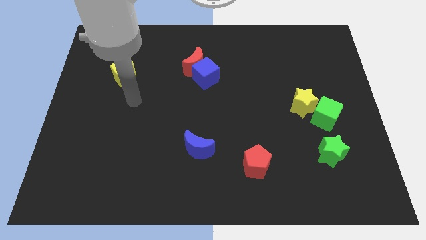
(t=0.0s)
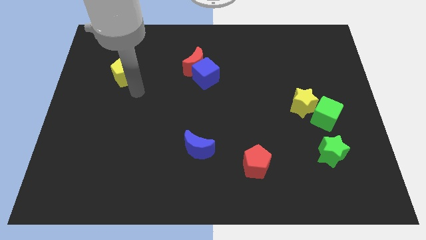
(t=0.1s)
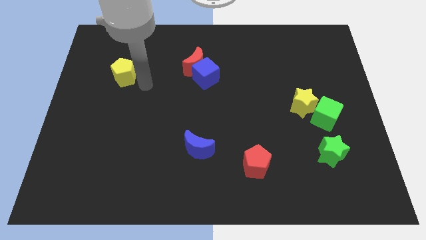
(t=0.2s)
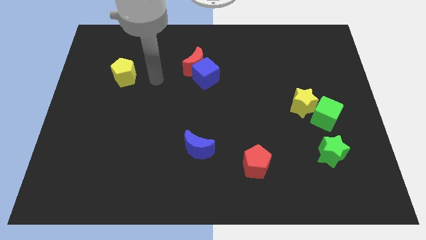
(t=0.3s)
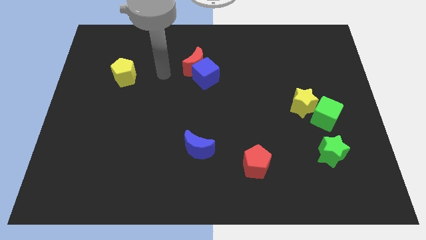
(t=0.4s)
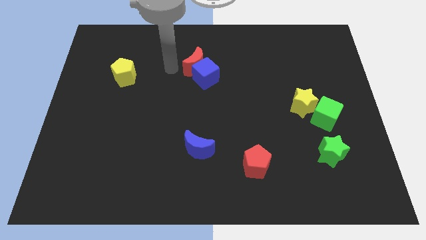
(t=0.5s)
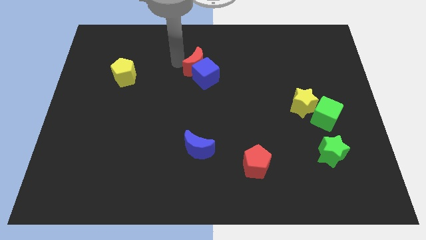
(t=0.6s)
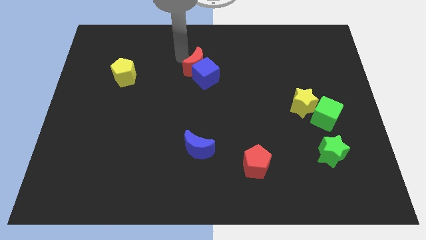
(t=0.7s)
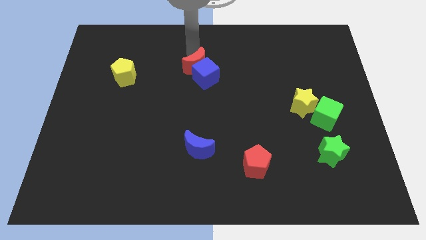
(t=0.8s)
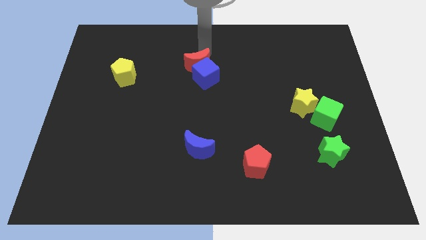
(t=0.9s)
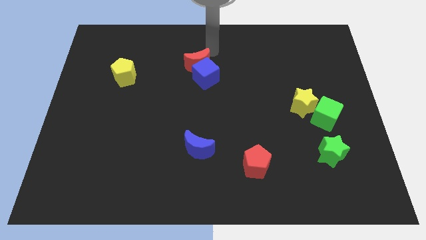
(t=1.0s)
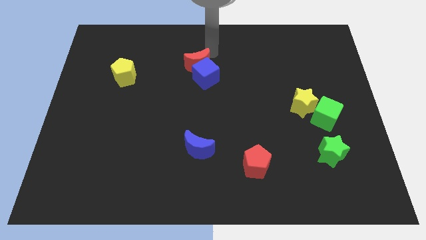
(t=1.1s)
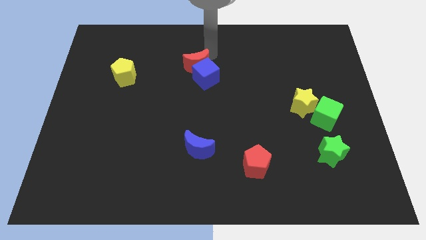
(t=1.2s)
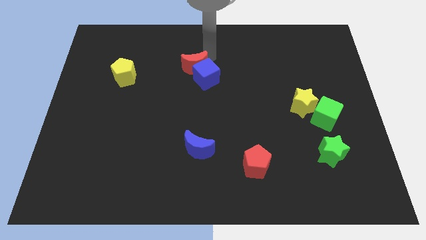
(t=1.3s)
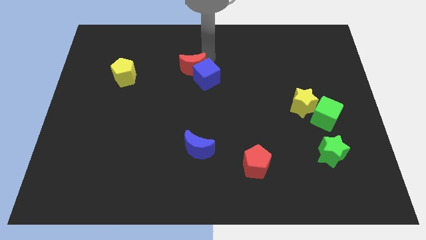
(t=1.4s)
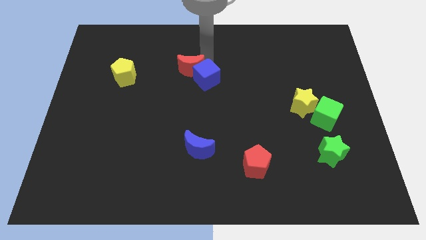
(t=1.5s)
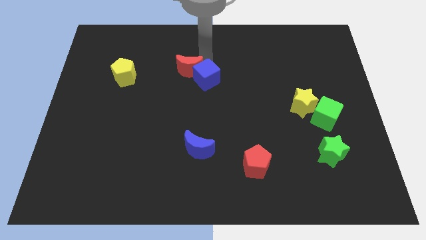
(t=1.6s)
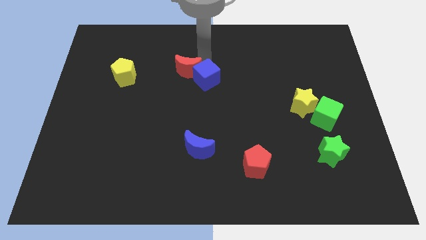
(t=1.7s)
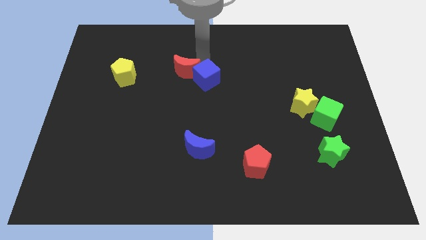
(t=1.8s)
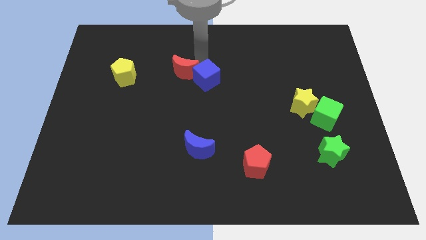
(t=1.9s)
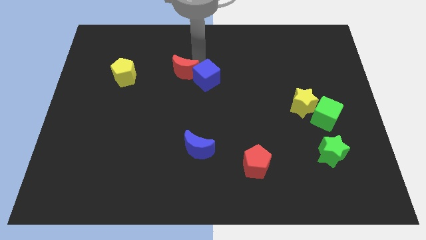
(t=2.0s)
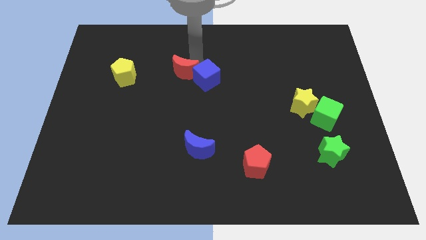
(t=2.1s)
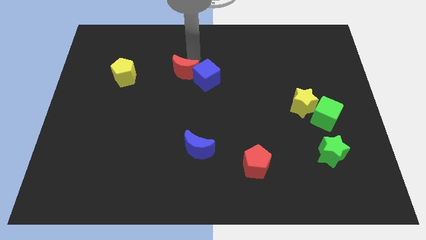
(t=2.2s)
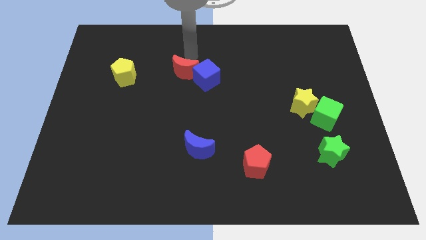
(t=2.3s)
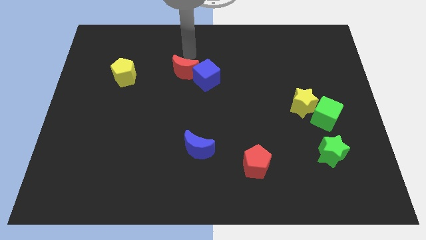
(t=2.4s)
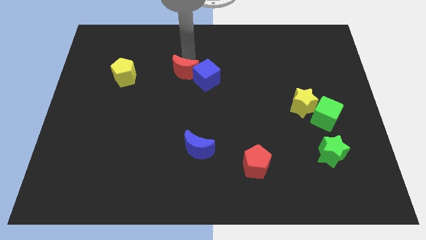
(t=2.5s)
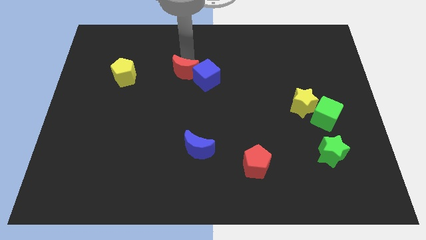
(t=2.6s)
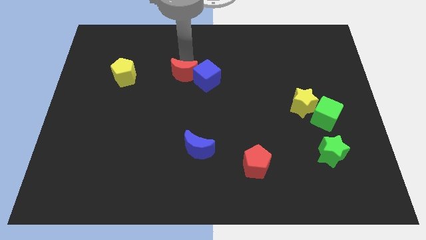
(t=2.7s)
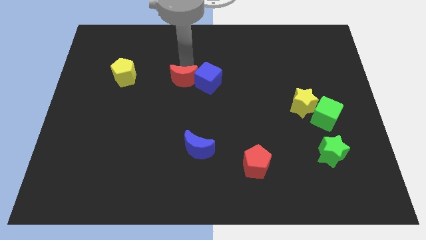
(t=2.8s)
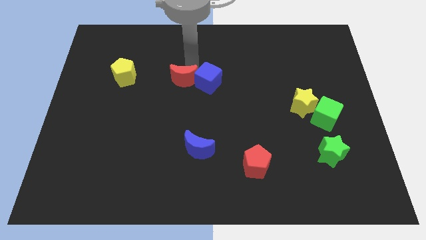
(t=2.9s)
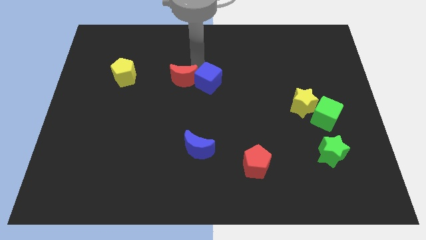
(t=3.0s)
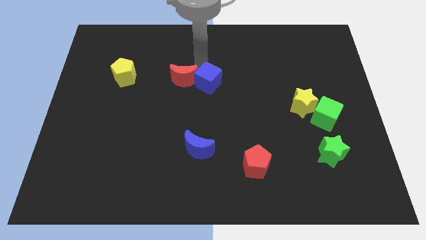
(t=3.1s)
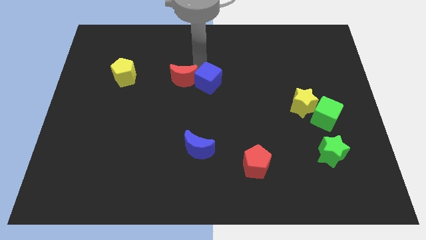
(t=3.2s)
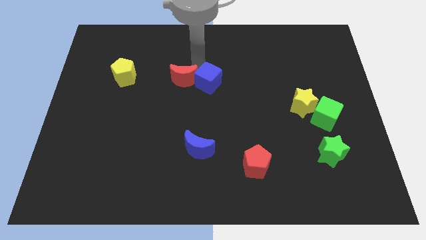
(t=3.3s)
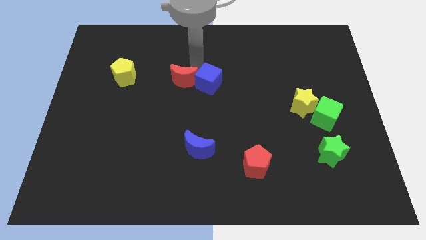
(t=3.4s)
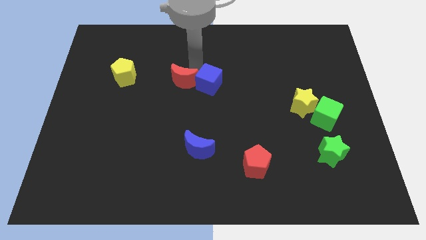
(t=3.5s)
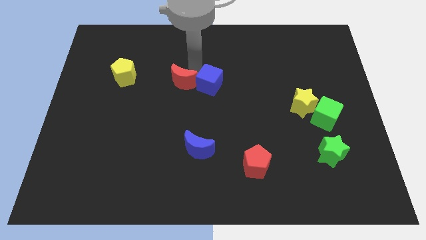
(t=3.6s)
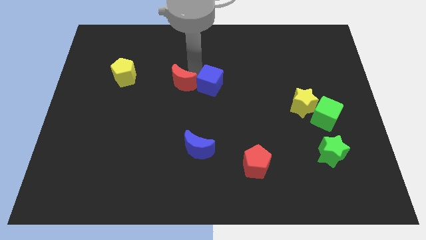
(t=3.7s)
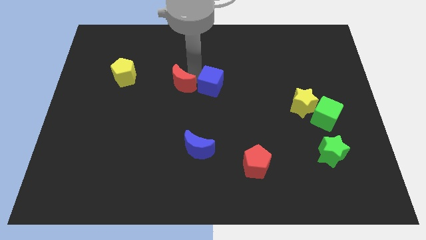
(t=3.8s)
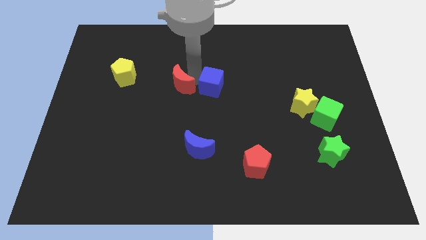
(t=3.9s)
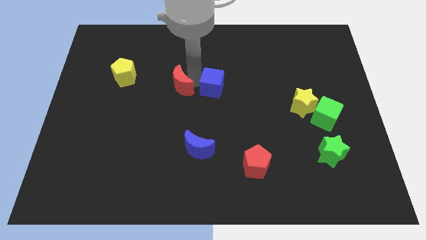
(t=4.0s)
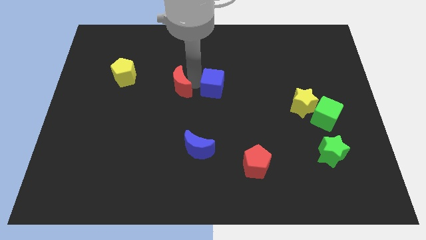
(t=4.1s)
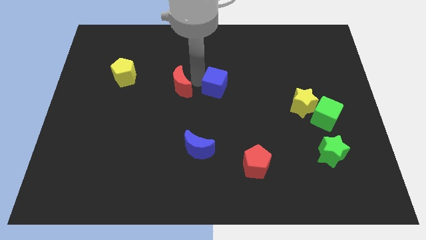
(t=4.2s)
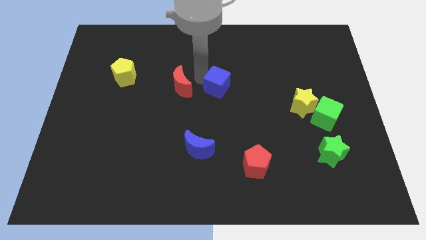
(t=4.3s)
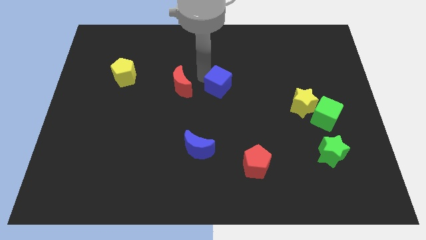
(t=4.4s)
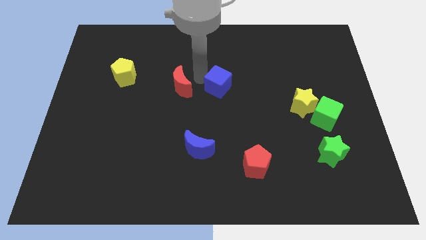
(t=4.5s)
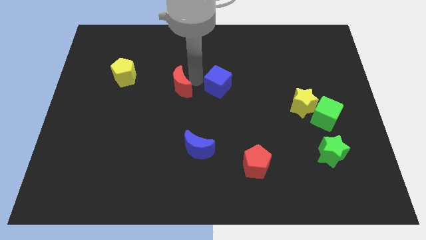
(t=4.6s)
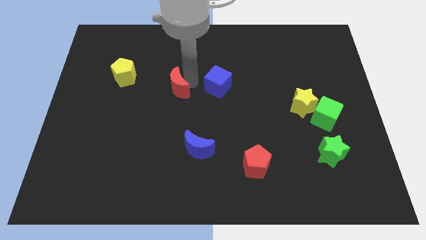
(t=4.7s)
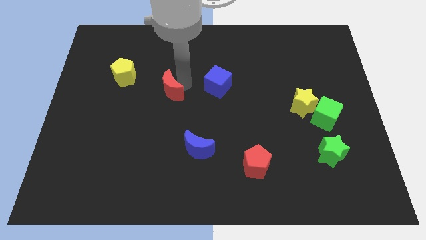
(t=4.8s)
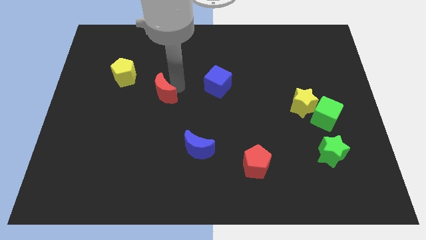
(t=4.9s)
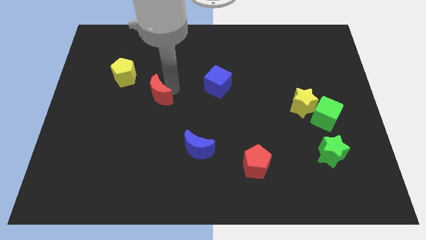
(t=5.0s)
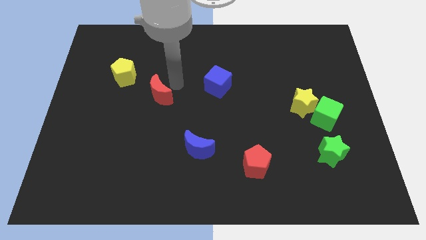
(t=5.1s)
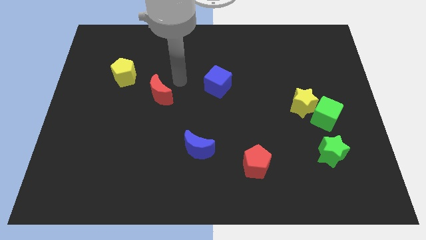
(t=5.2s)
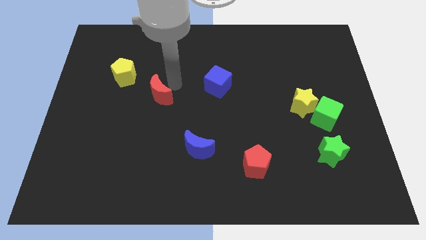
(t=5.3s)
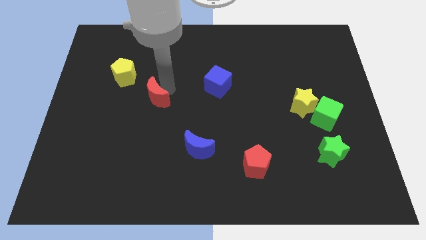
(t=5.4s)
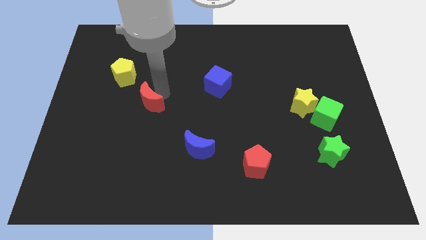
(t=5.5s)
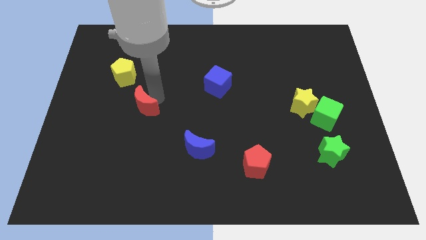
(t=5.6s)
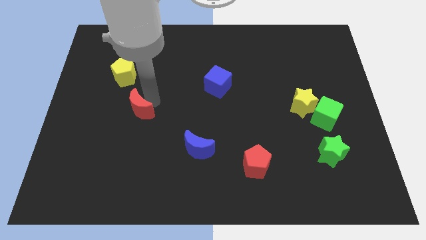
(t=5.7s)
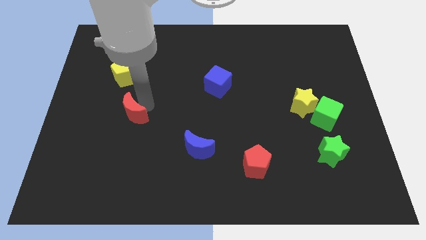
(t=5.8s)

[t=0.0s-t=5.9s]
push the red moon downwards and left diagonally

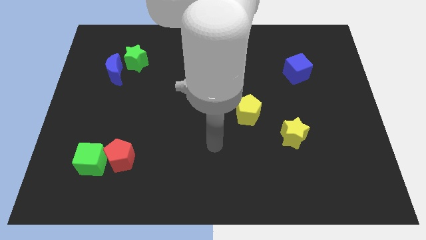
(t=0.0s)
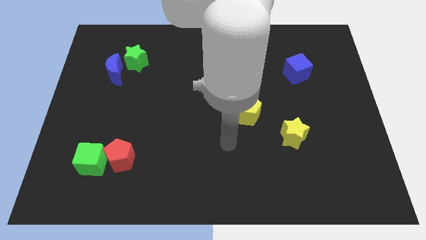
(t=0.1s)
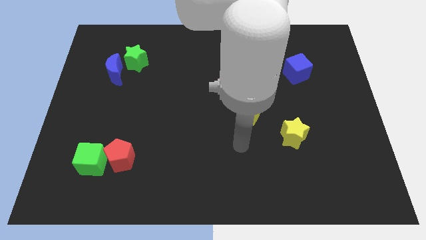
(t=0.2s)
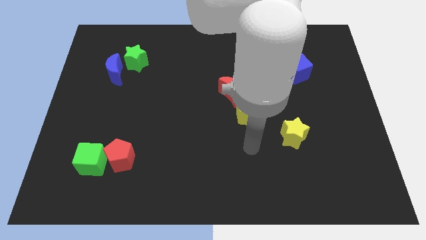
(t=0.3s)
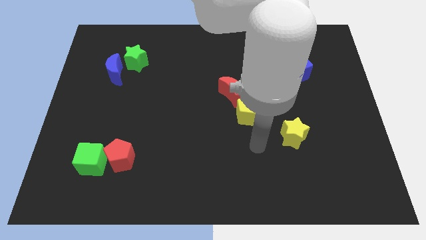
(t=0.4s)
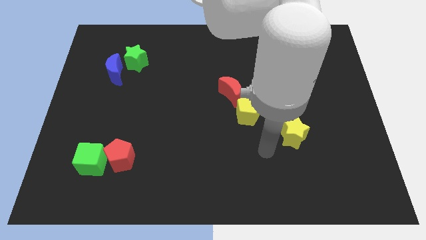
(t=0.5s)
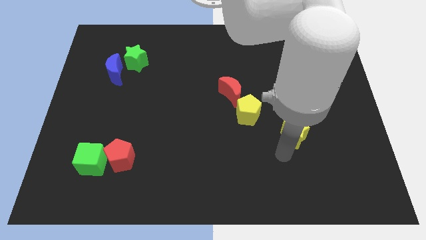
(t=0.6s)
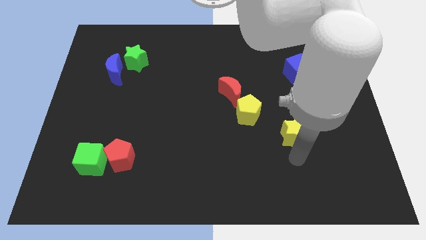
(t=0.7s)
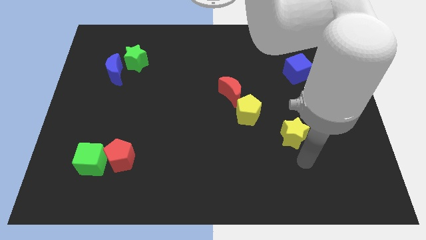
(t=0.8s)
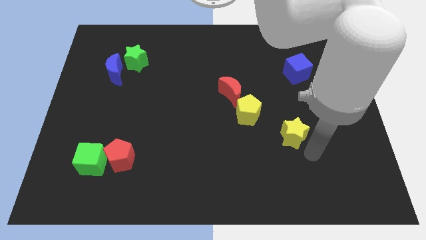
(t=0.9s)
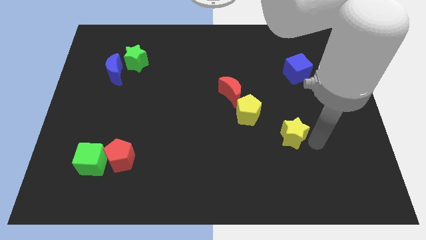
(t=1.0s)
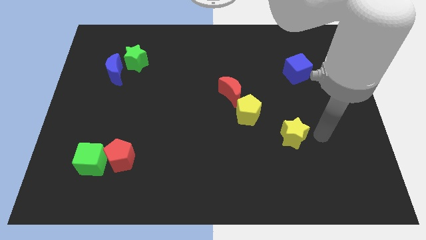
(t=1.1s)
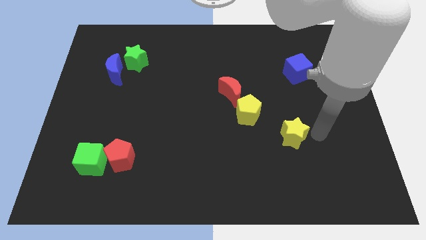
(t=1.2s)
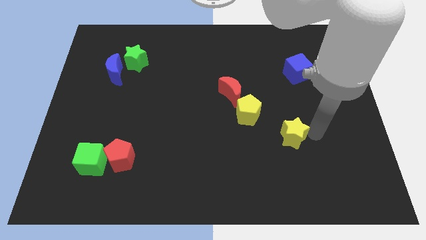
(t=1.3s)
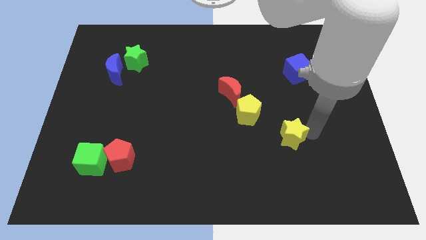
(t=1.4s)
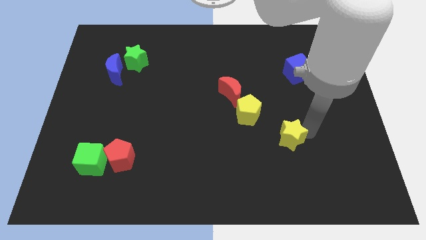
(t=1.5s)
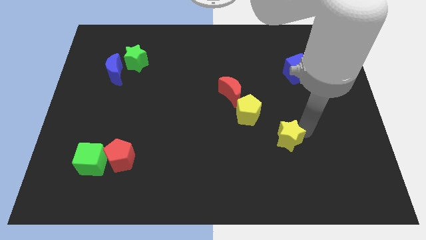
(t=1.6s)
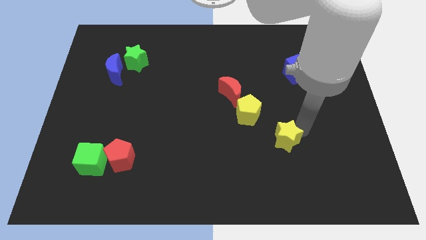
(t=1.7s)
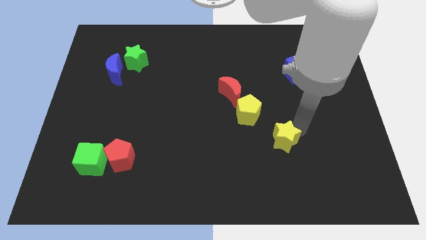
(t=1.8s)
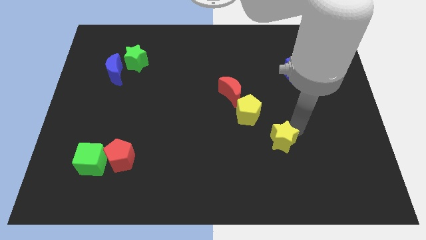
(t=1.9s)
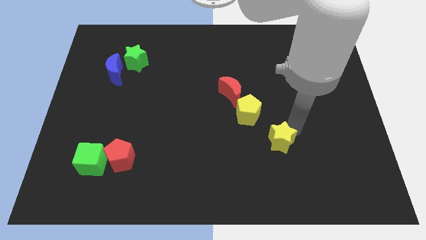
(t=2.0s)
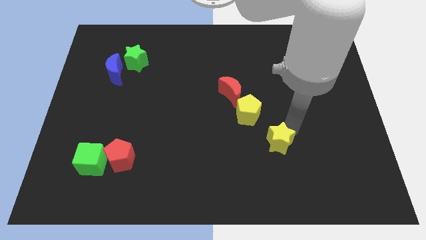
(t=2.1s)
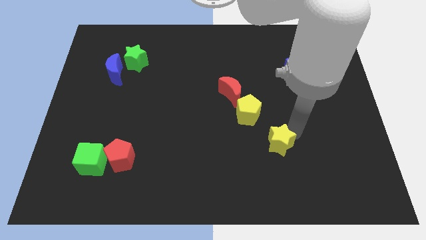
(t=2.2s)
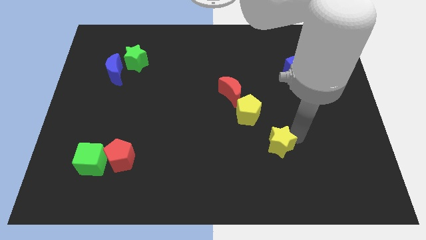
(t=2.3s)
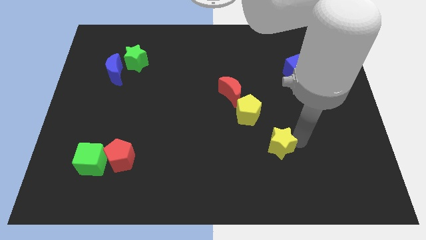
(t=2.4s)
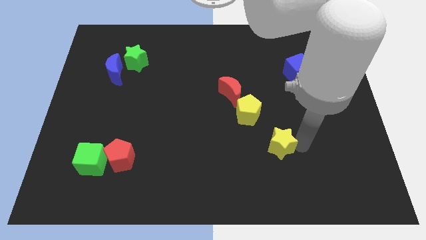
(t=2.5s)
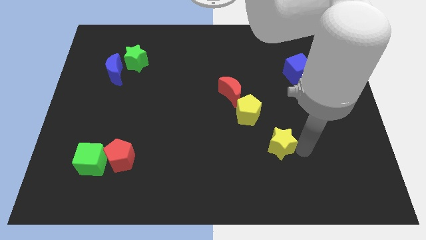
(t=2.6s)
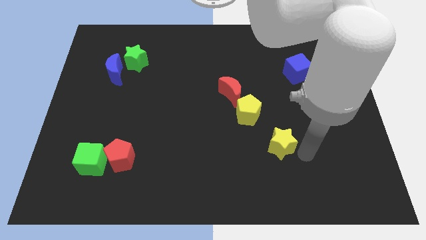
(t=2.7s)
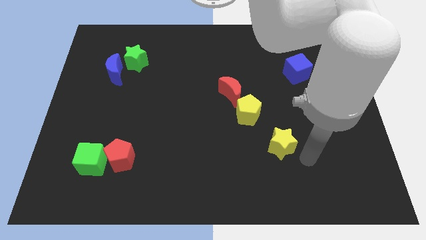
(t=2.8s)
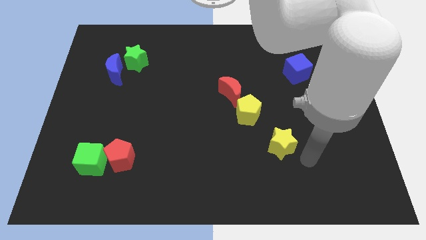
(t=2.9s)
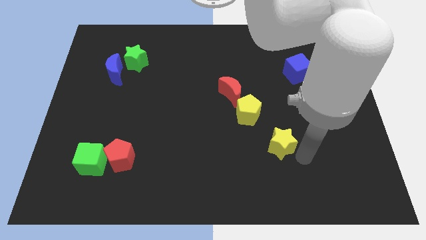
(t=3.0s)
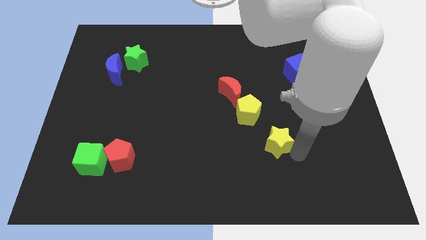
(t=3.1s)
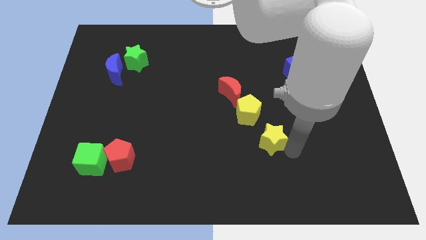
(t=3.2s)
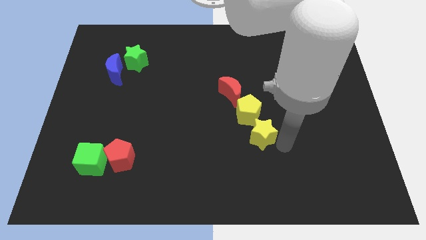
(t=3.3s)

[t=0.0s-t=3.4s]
move the yellow star slightly left
